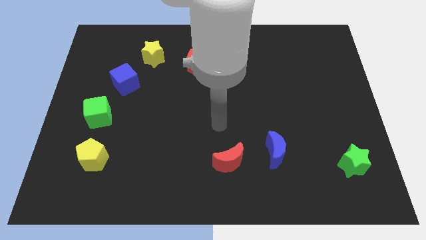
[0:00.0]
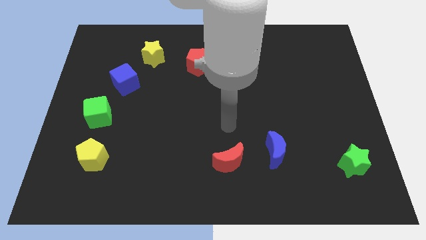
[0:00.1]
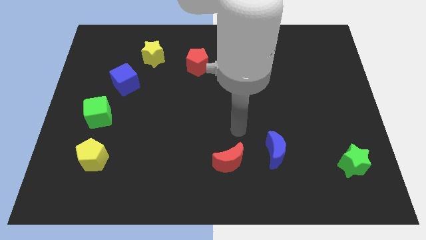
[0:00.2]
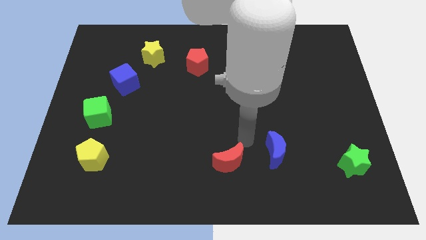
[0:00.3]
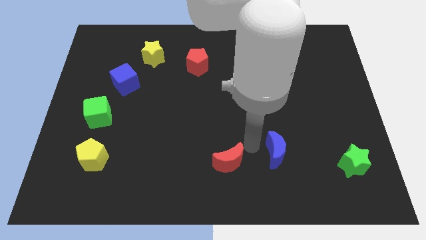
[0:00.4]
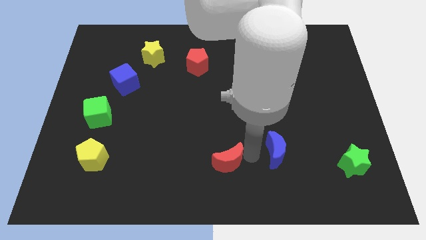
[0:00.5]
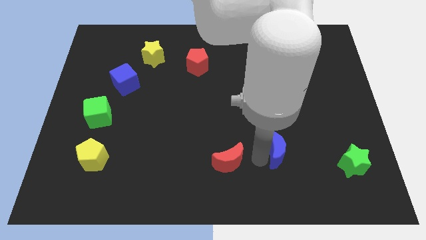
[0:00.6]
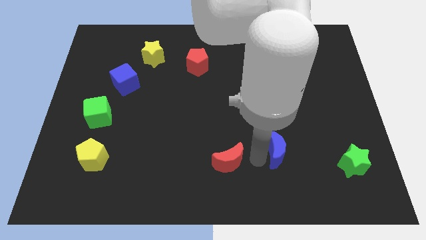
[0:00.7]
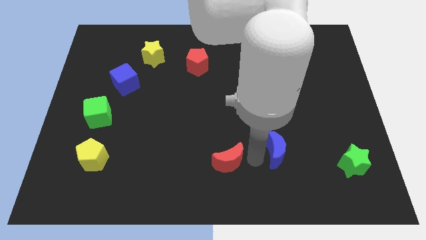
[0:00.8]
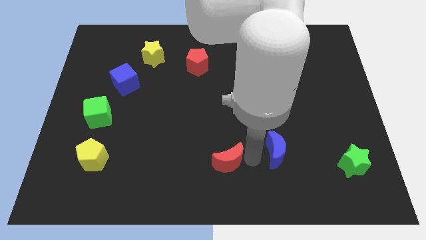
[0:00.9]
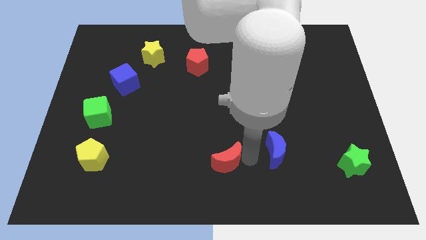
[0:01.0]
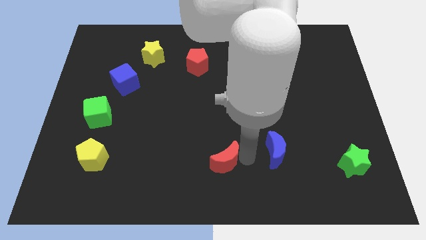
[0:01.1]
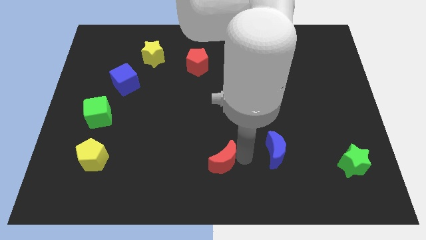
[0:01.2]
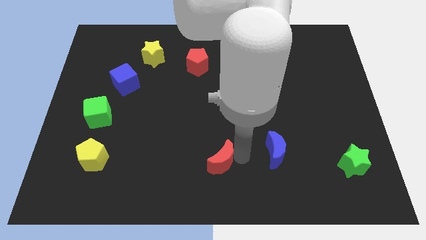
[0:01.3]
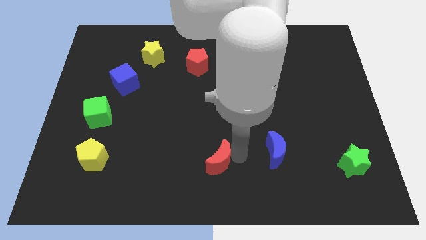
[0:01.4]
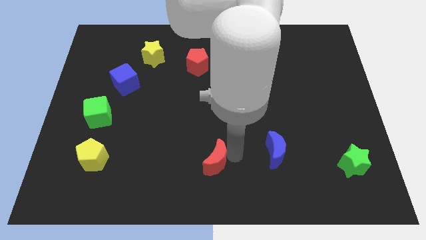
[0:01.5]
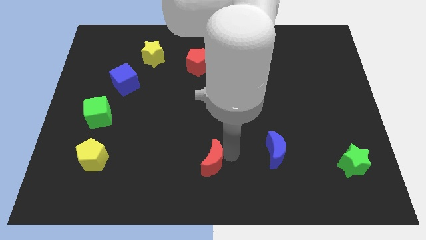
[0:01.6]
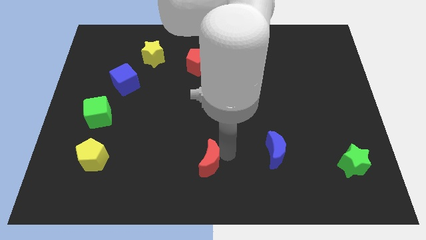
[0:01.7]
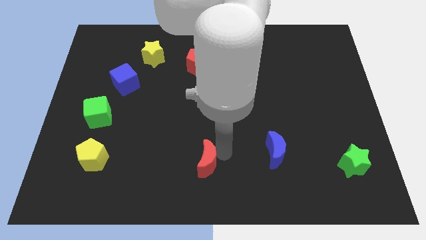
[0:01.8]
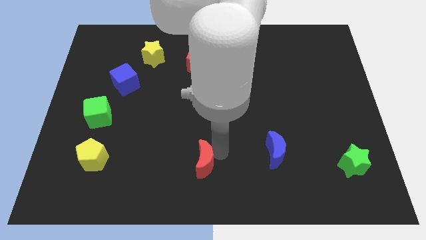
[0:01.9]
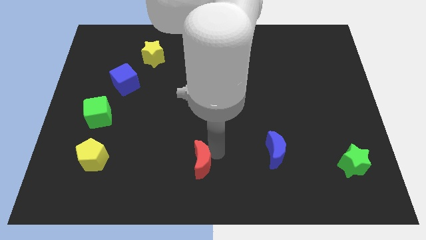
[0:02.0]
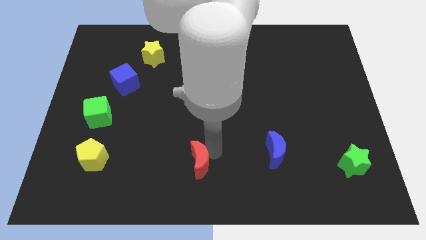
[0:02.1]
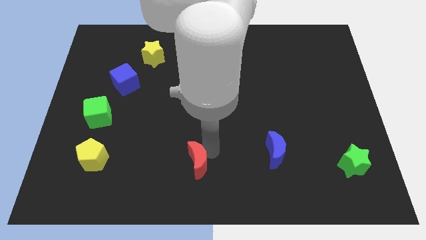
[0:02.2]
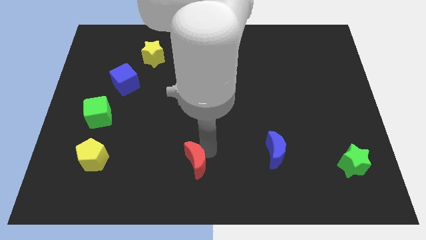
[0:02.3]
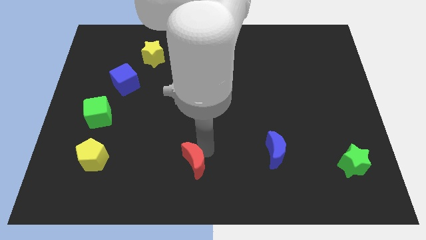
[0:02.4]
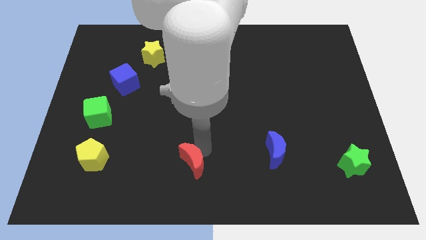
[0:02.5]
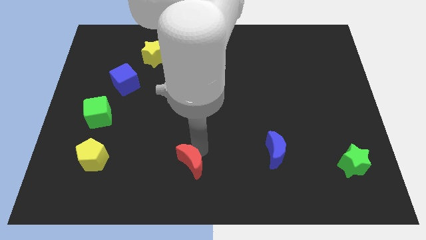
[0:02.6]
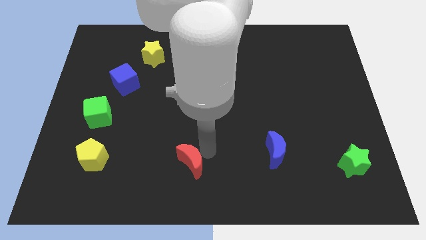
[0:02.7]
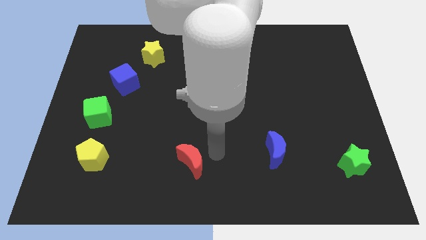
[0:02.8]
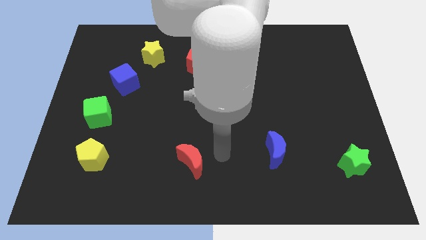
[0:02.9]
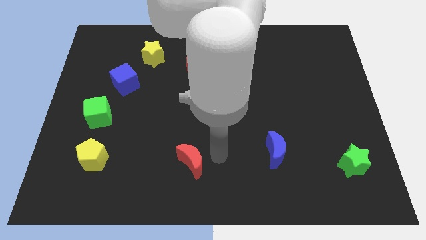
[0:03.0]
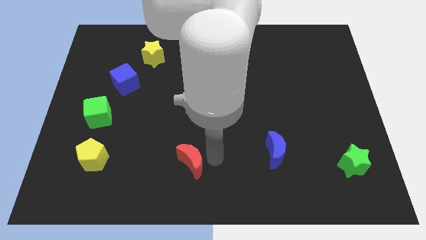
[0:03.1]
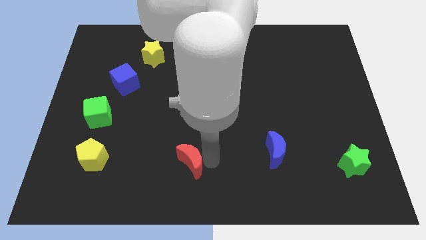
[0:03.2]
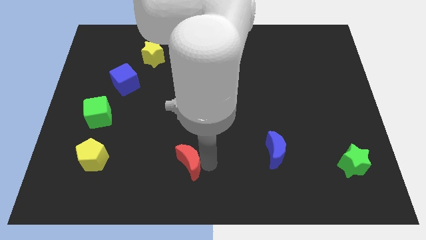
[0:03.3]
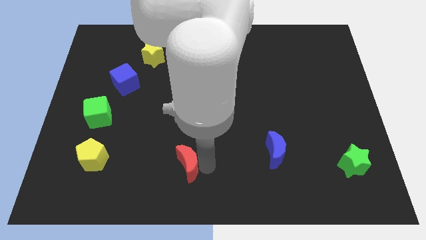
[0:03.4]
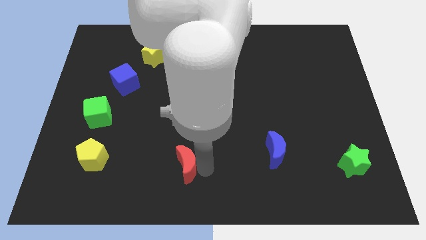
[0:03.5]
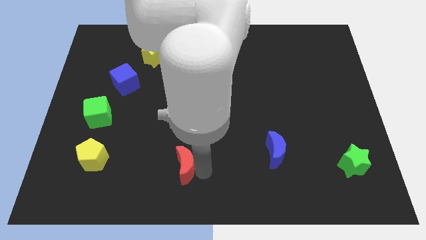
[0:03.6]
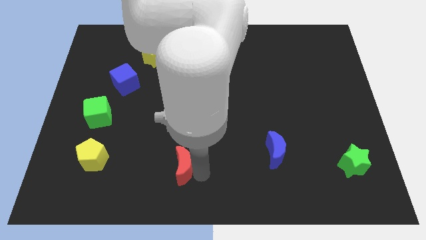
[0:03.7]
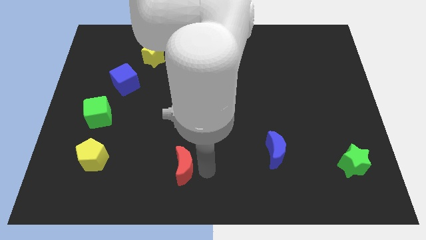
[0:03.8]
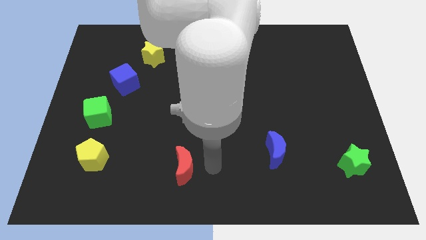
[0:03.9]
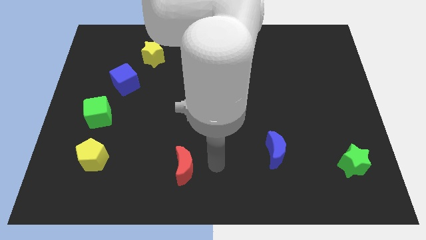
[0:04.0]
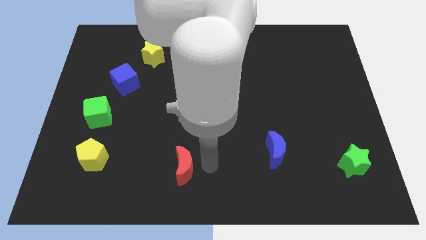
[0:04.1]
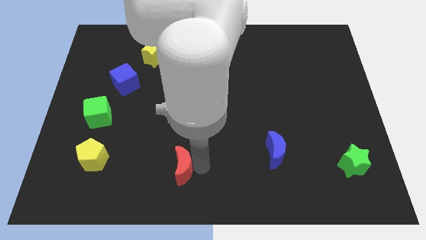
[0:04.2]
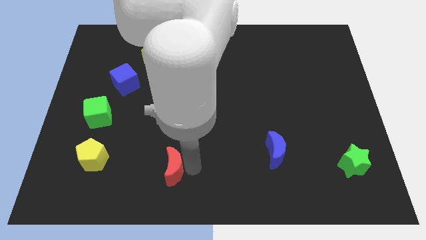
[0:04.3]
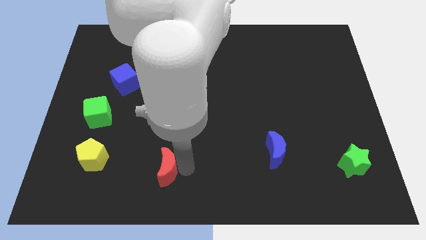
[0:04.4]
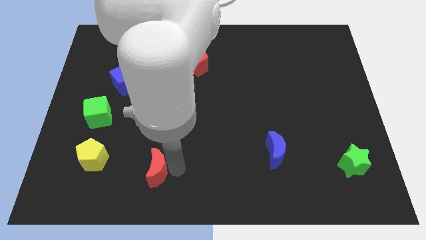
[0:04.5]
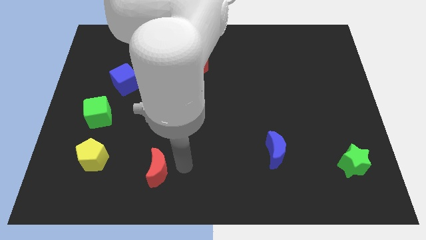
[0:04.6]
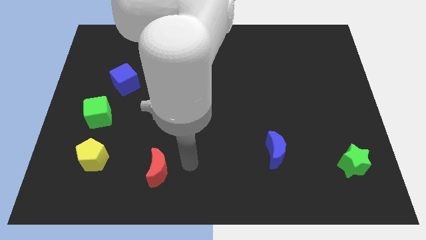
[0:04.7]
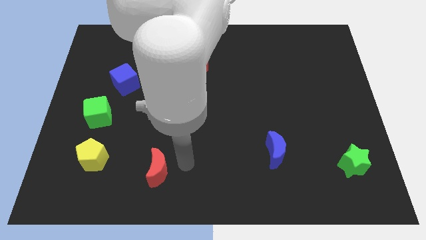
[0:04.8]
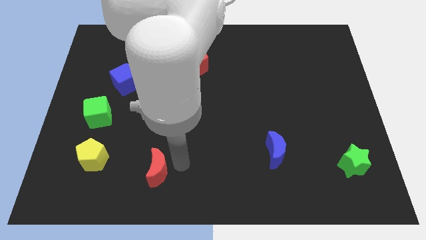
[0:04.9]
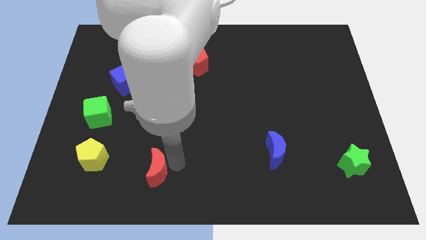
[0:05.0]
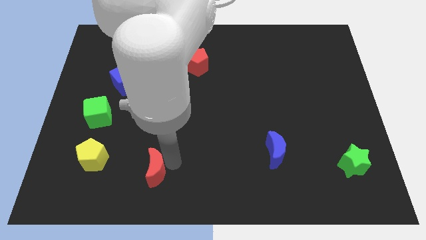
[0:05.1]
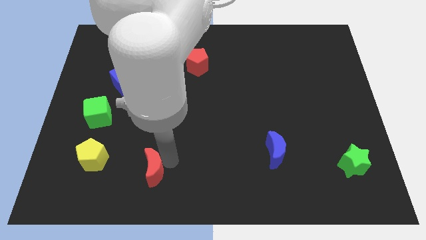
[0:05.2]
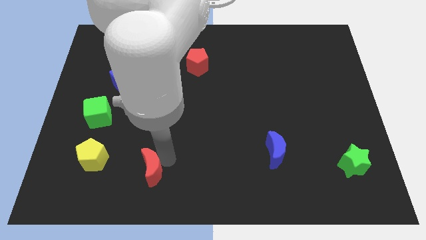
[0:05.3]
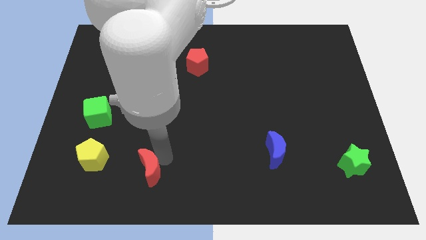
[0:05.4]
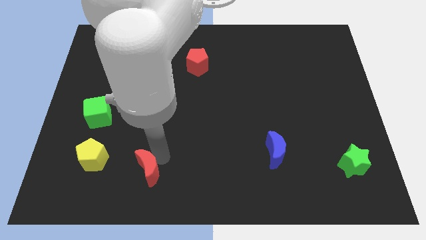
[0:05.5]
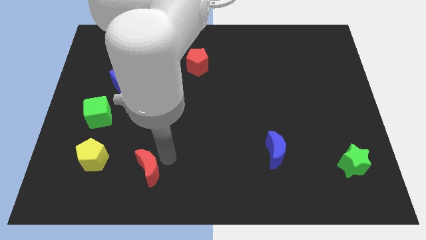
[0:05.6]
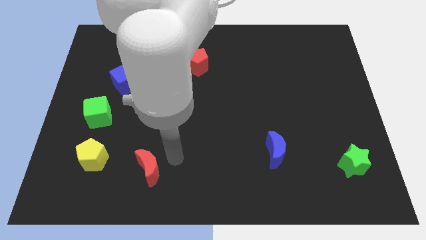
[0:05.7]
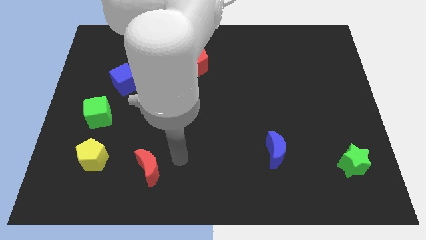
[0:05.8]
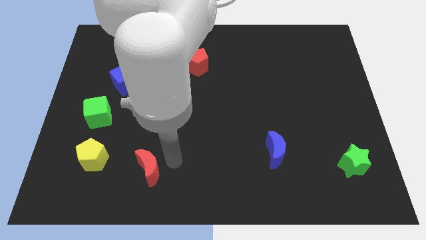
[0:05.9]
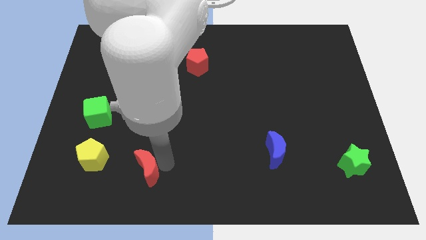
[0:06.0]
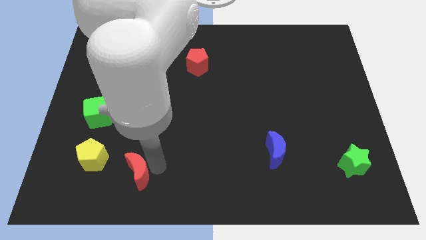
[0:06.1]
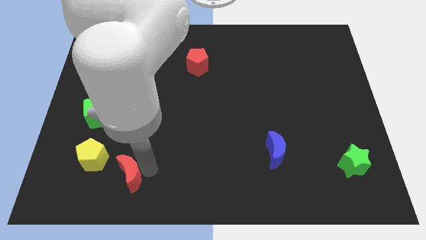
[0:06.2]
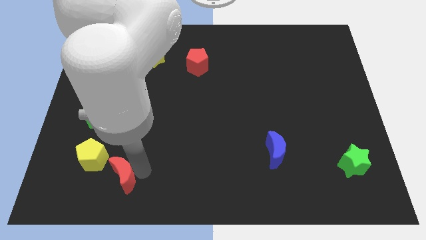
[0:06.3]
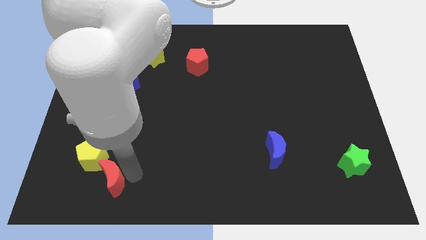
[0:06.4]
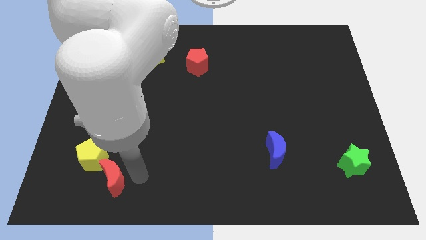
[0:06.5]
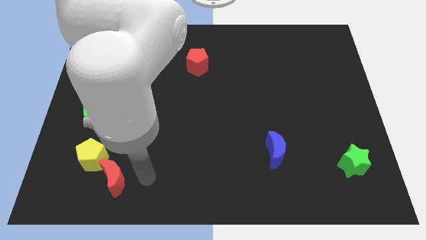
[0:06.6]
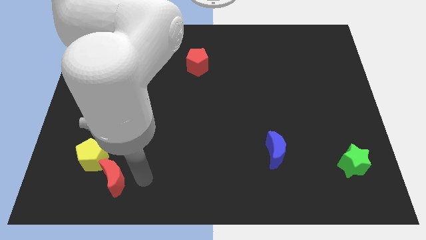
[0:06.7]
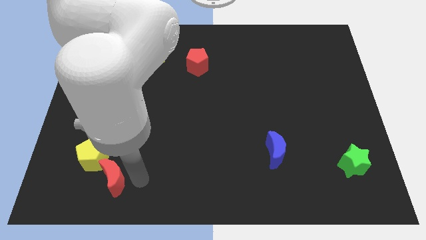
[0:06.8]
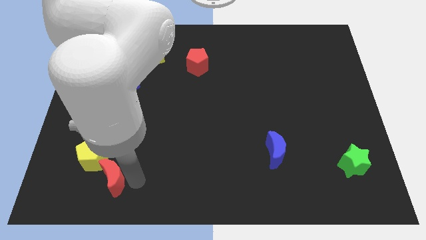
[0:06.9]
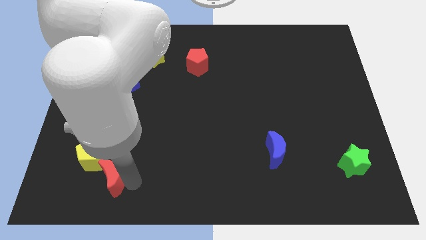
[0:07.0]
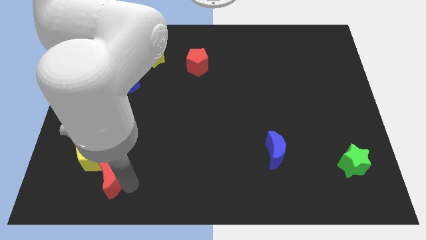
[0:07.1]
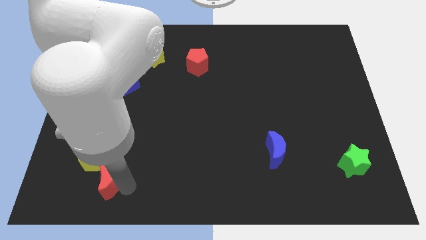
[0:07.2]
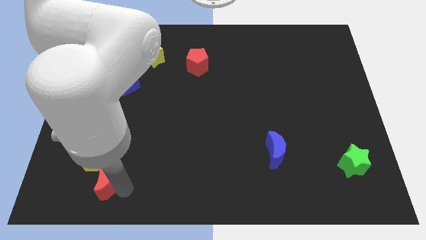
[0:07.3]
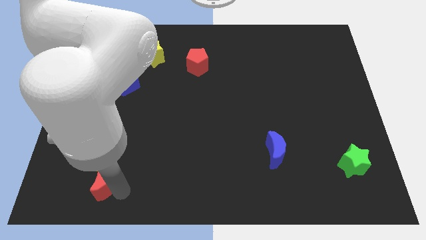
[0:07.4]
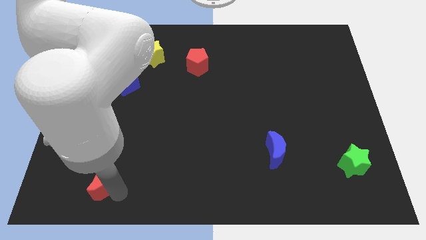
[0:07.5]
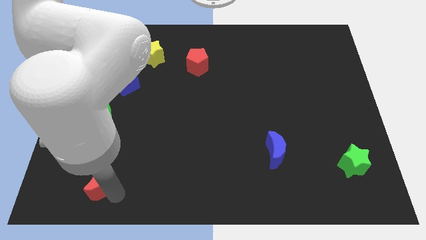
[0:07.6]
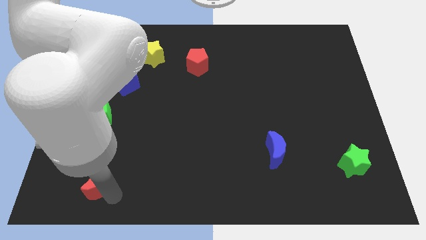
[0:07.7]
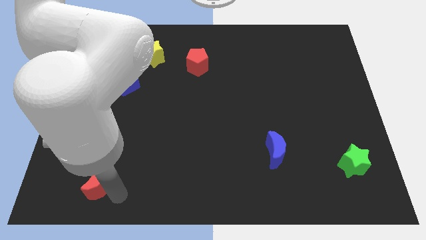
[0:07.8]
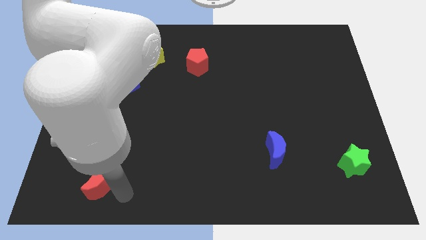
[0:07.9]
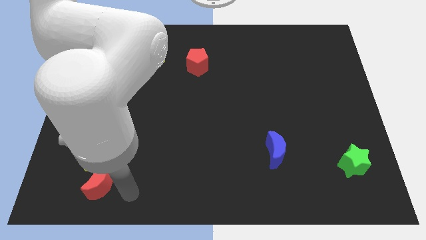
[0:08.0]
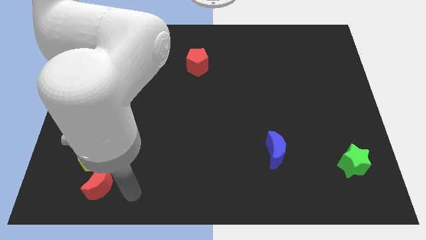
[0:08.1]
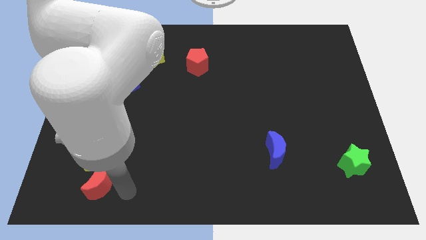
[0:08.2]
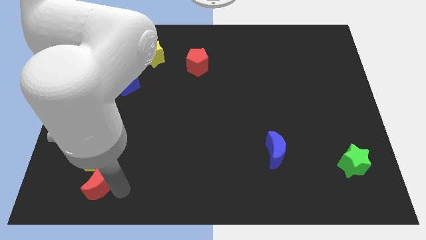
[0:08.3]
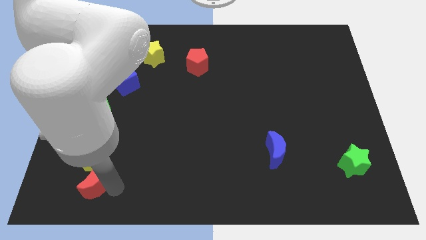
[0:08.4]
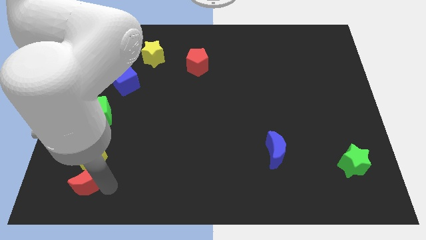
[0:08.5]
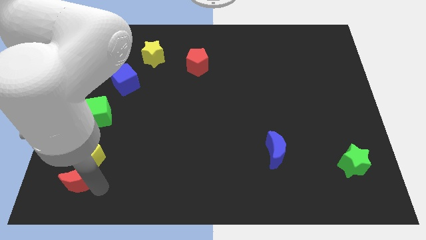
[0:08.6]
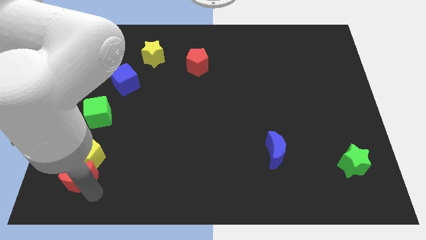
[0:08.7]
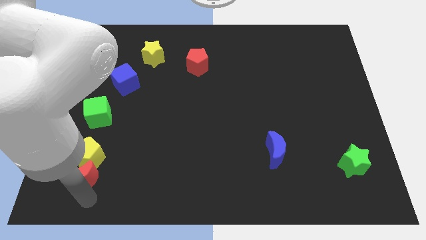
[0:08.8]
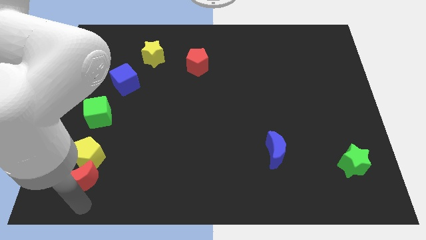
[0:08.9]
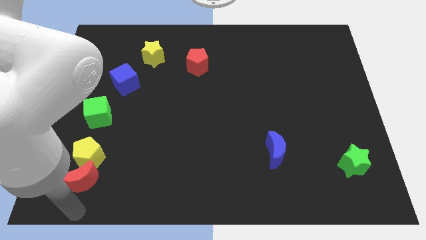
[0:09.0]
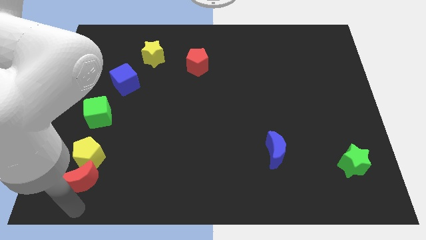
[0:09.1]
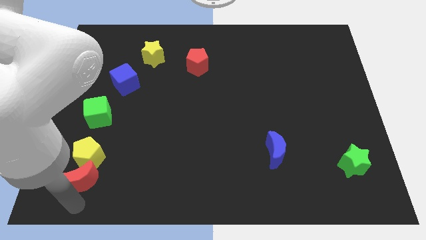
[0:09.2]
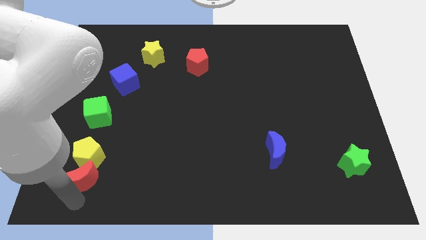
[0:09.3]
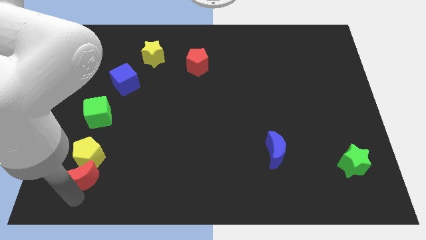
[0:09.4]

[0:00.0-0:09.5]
slide the red moon to the bottom side of the green cube
